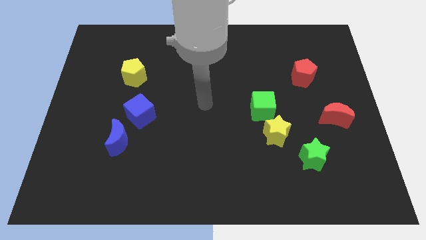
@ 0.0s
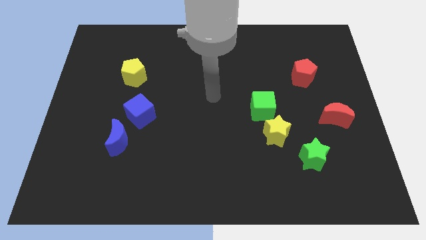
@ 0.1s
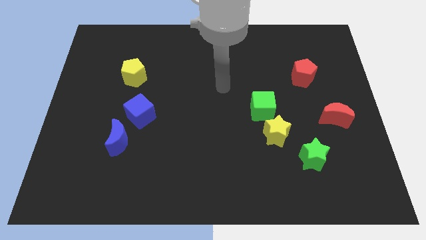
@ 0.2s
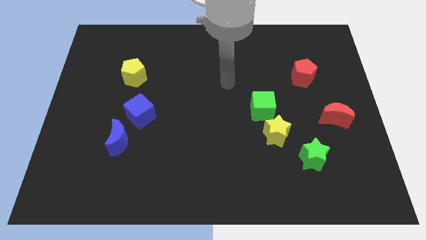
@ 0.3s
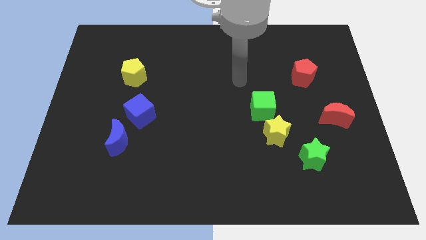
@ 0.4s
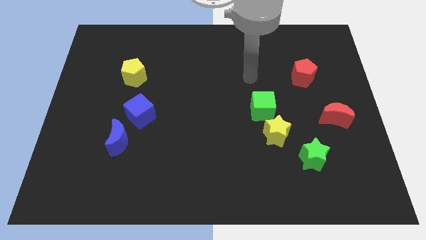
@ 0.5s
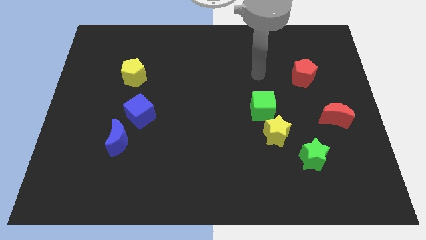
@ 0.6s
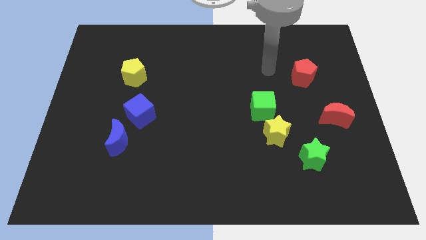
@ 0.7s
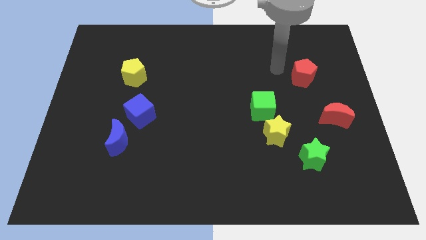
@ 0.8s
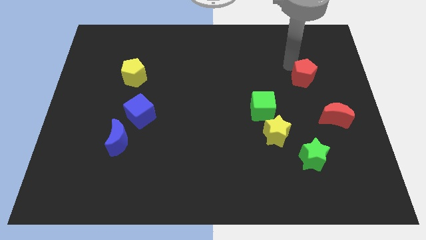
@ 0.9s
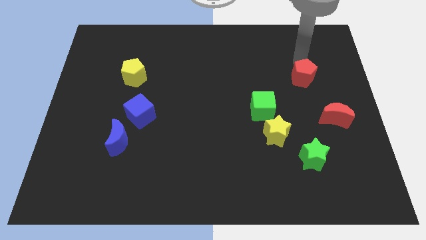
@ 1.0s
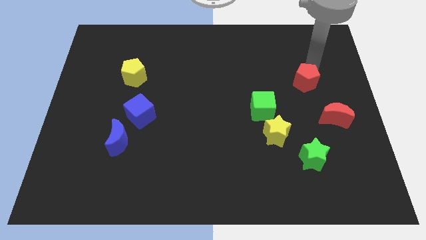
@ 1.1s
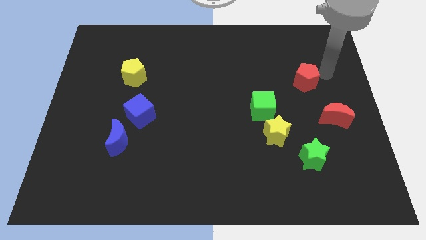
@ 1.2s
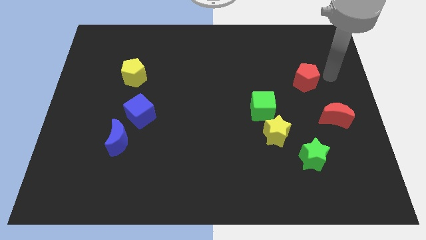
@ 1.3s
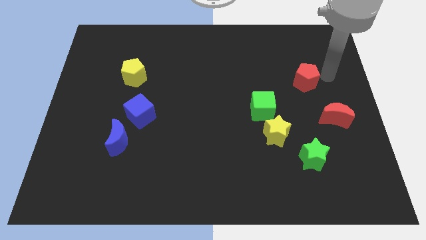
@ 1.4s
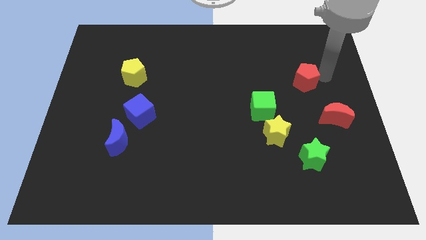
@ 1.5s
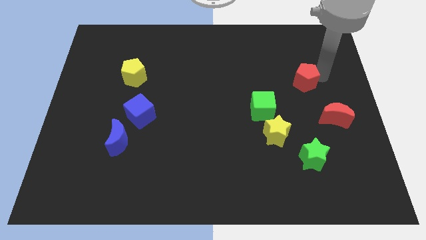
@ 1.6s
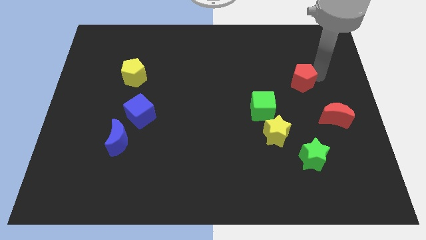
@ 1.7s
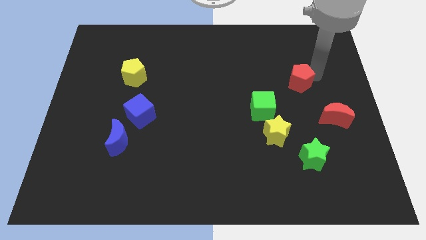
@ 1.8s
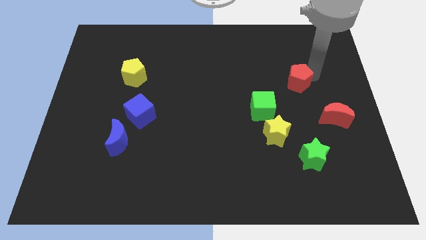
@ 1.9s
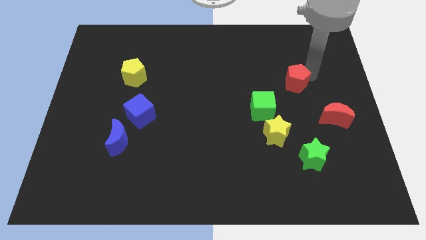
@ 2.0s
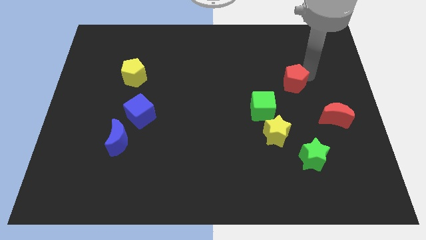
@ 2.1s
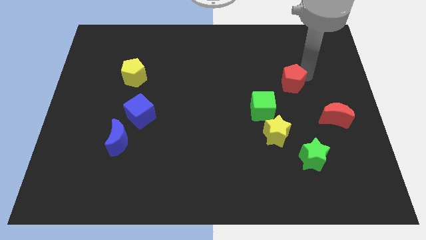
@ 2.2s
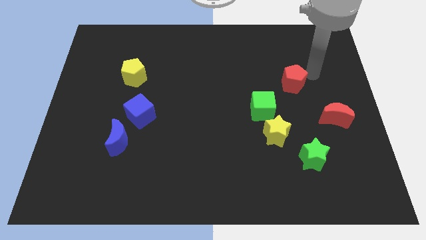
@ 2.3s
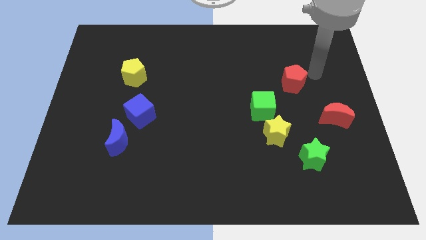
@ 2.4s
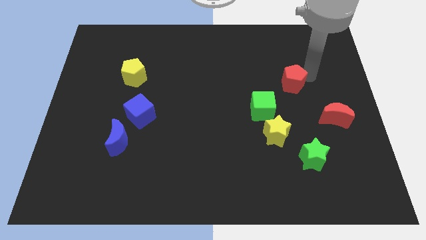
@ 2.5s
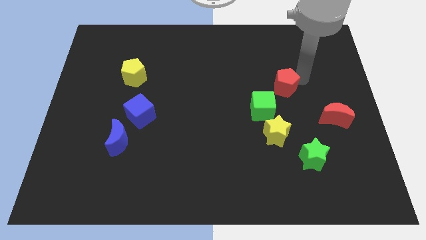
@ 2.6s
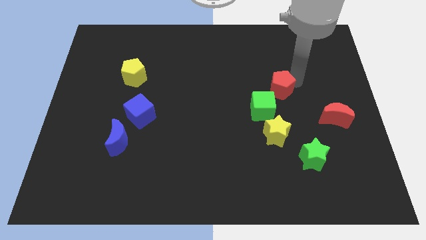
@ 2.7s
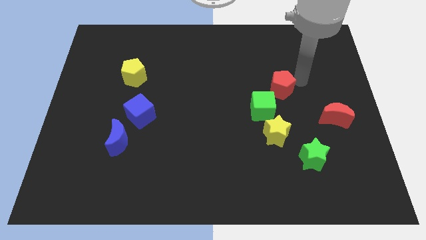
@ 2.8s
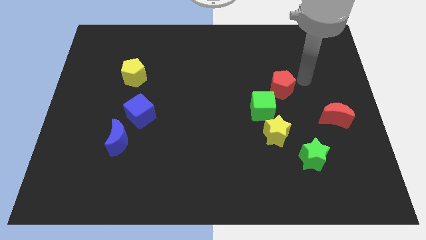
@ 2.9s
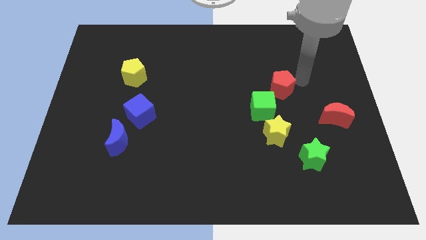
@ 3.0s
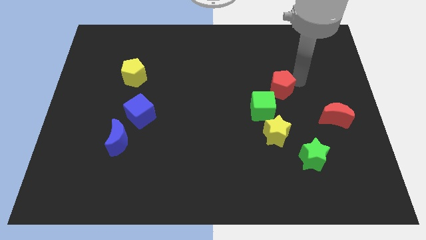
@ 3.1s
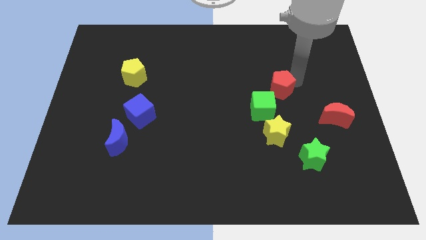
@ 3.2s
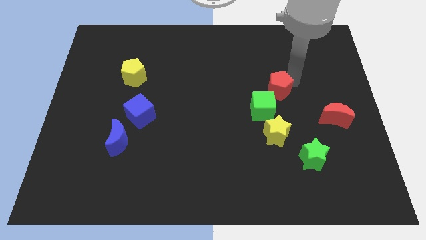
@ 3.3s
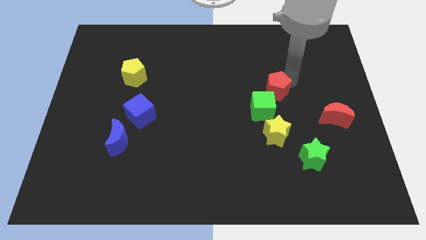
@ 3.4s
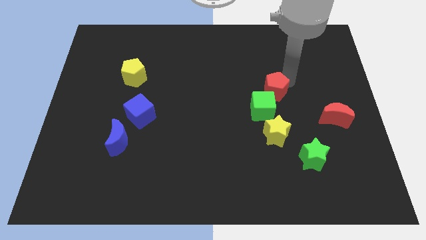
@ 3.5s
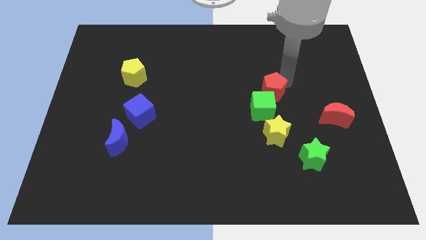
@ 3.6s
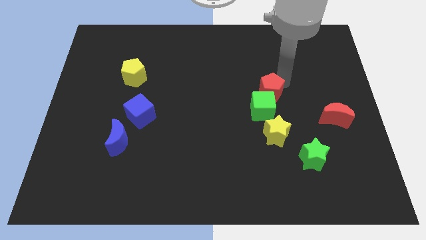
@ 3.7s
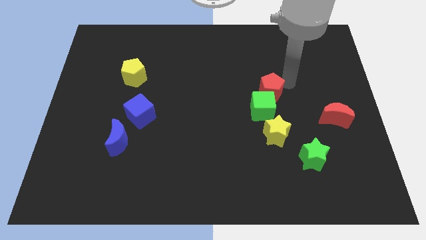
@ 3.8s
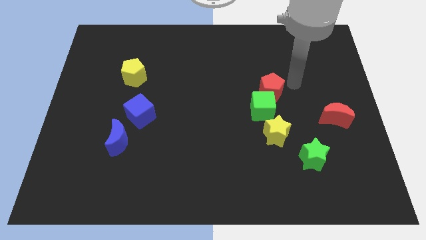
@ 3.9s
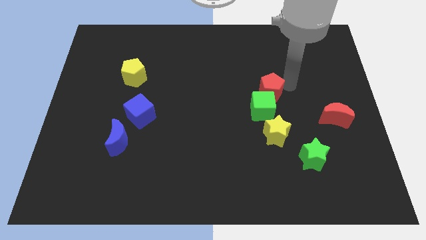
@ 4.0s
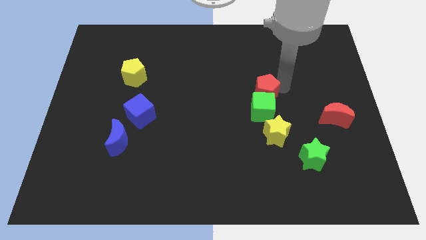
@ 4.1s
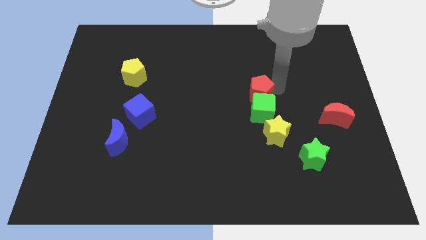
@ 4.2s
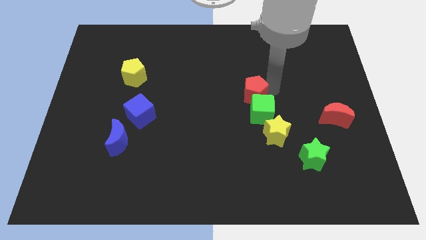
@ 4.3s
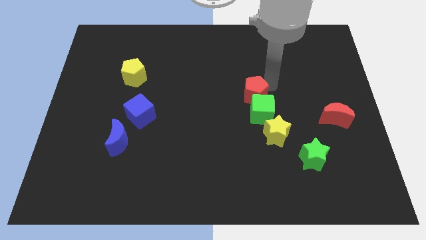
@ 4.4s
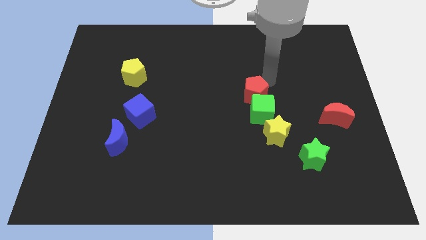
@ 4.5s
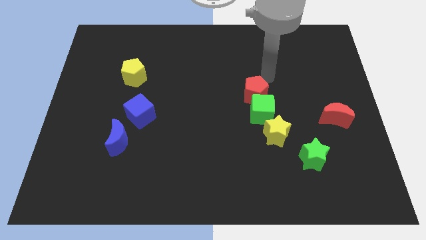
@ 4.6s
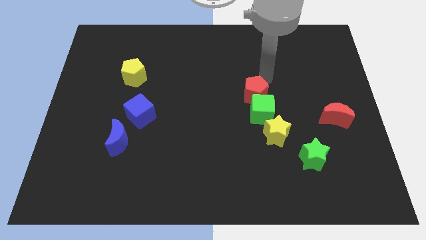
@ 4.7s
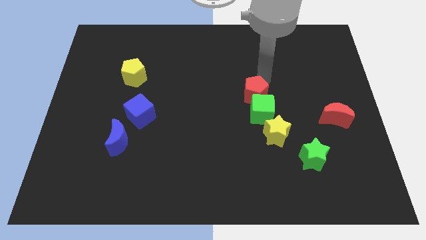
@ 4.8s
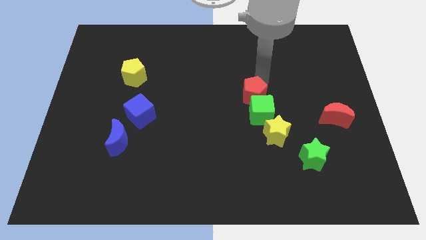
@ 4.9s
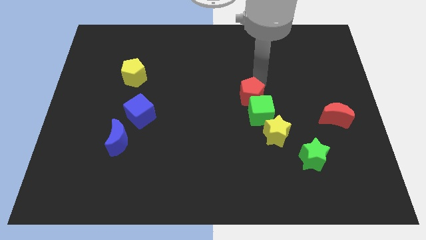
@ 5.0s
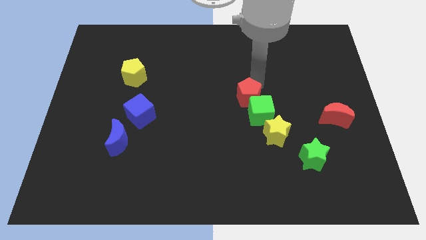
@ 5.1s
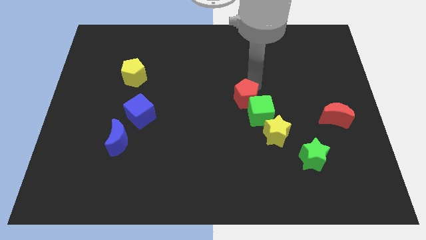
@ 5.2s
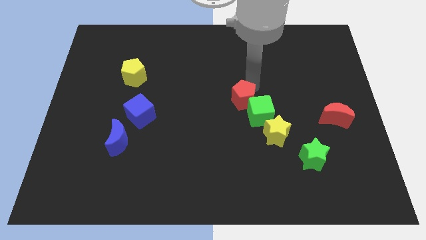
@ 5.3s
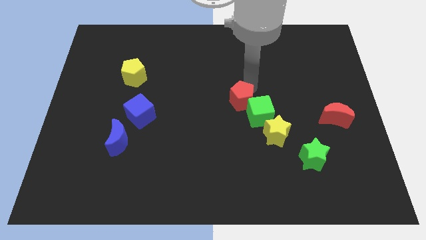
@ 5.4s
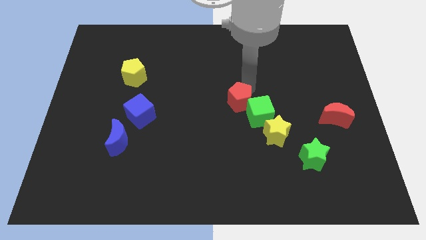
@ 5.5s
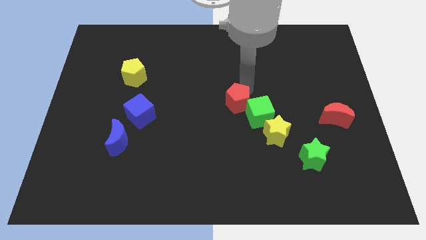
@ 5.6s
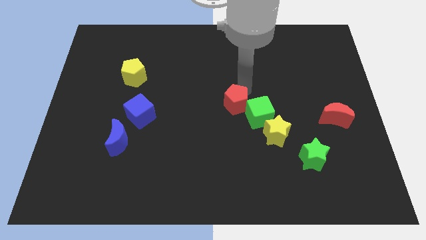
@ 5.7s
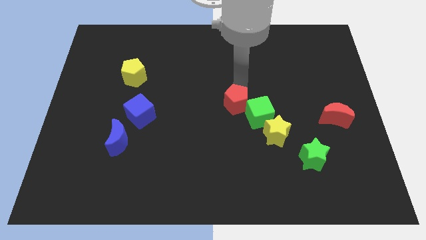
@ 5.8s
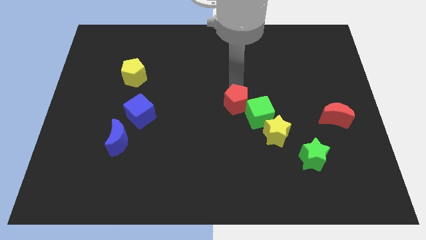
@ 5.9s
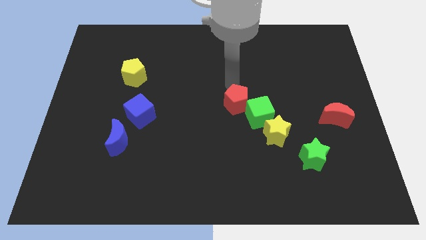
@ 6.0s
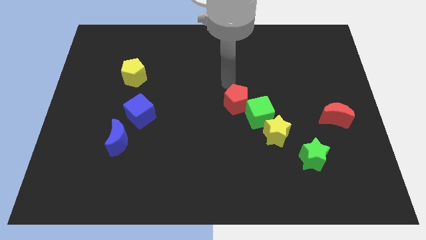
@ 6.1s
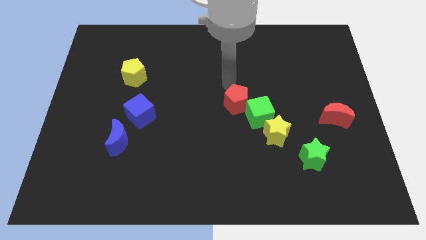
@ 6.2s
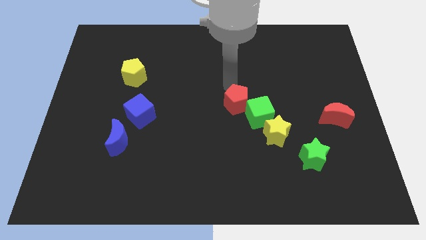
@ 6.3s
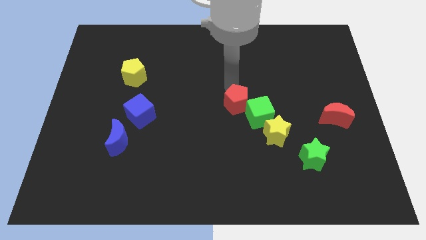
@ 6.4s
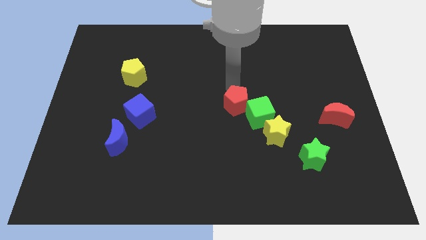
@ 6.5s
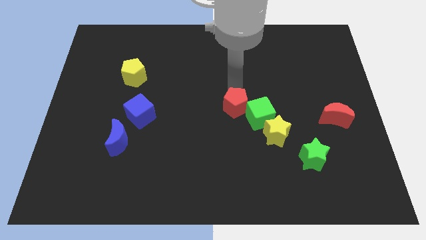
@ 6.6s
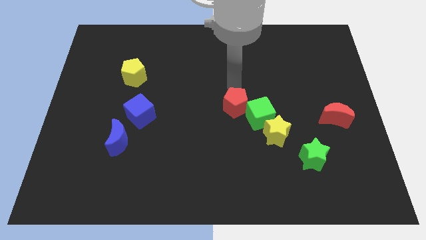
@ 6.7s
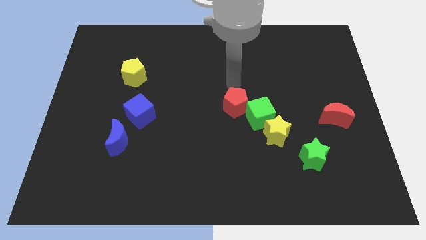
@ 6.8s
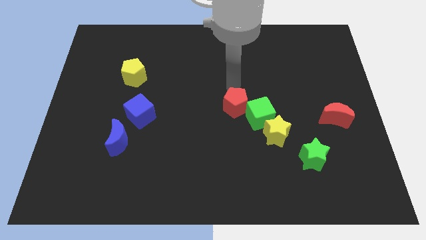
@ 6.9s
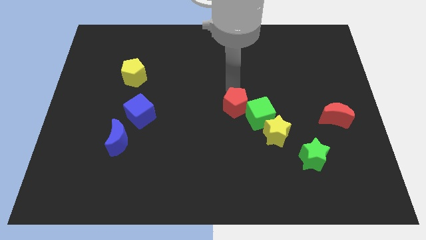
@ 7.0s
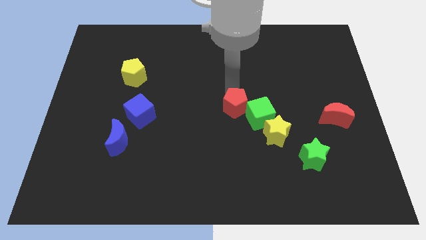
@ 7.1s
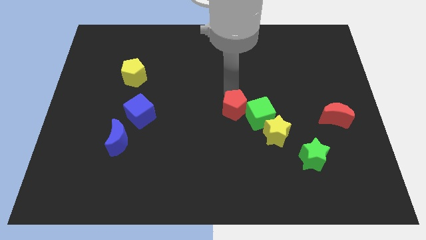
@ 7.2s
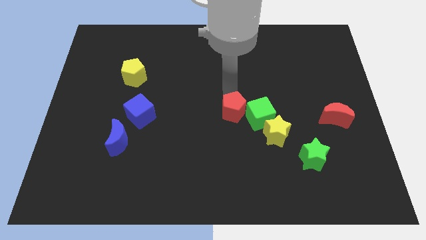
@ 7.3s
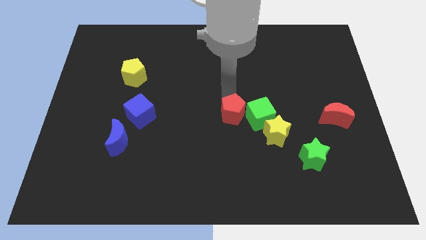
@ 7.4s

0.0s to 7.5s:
push the red pentagon downwards and to the left diagonally

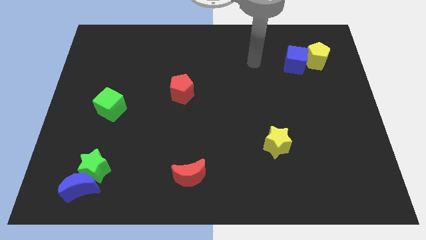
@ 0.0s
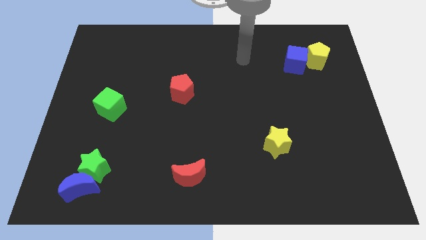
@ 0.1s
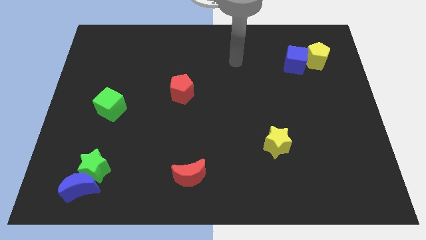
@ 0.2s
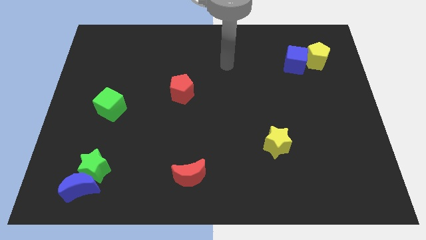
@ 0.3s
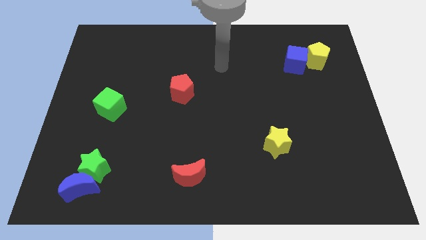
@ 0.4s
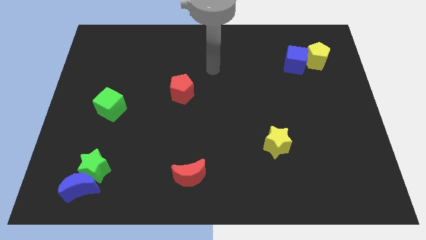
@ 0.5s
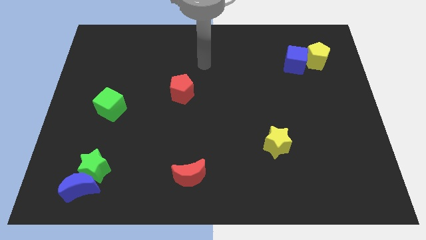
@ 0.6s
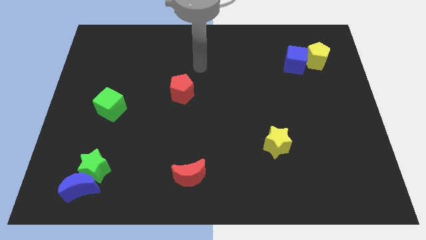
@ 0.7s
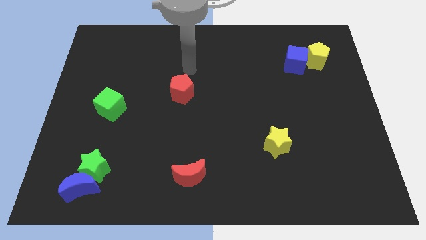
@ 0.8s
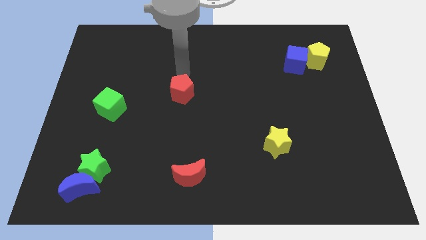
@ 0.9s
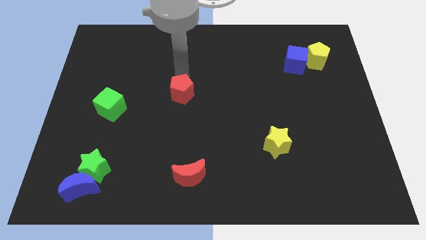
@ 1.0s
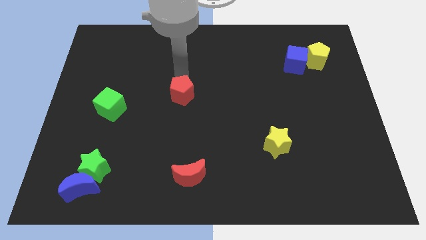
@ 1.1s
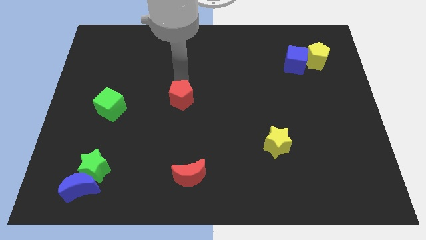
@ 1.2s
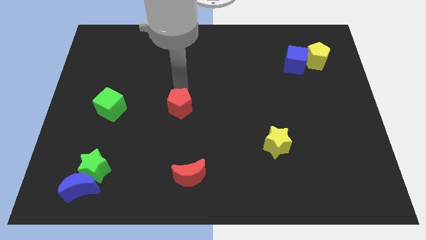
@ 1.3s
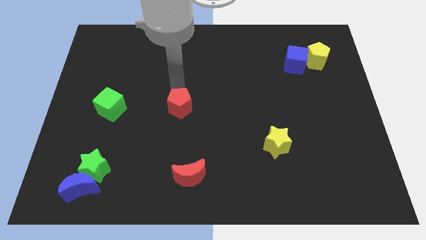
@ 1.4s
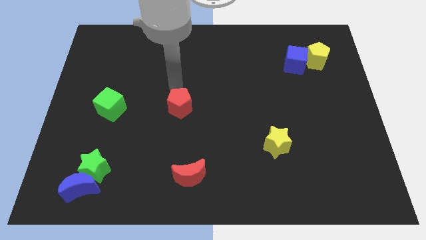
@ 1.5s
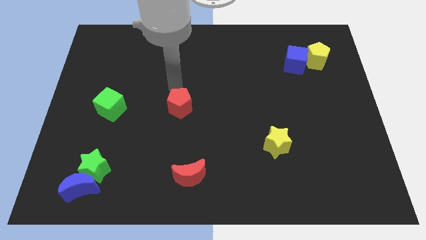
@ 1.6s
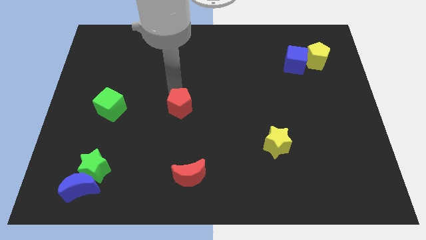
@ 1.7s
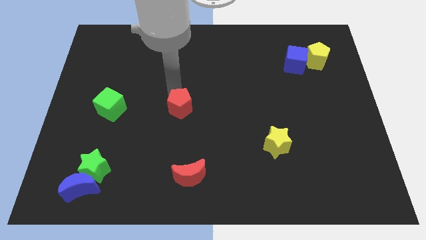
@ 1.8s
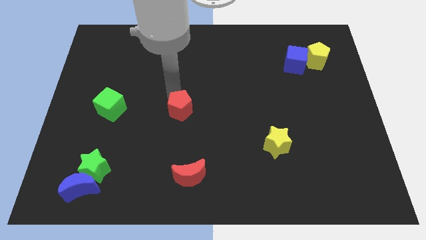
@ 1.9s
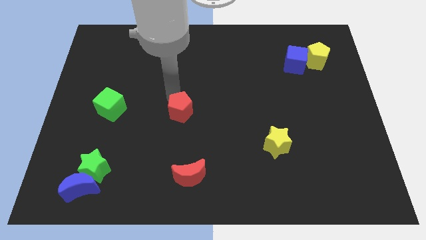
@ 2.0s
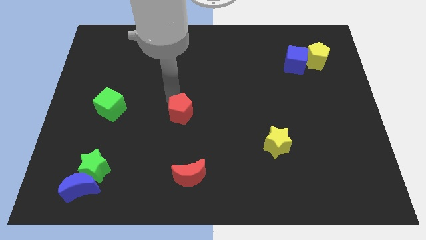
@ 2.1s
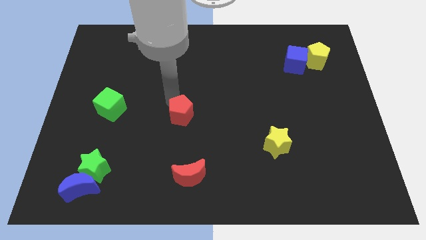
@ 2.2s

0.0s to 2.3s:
slide the red pentagon downwards somewhat
